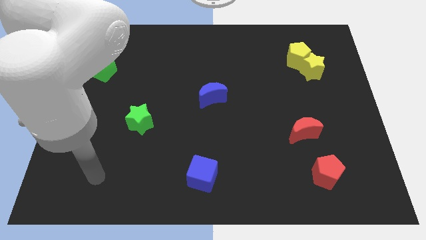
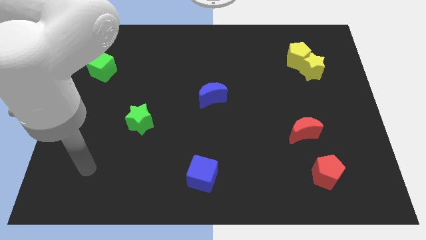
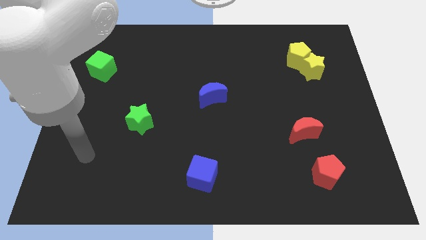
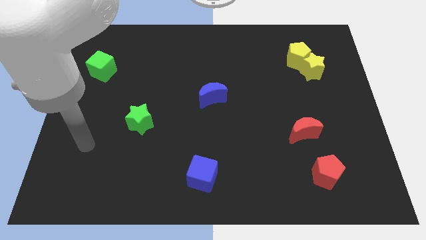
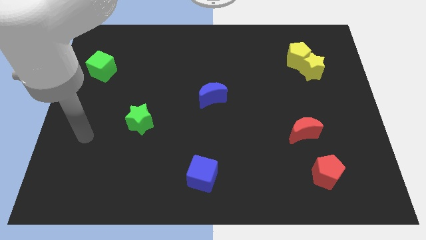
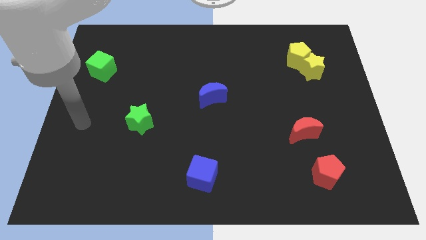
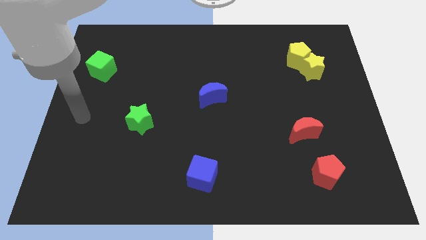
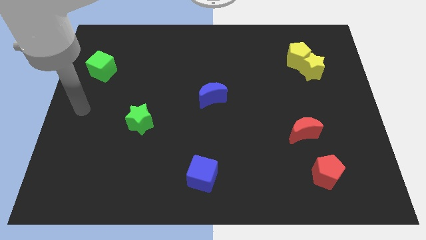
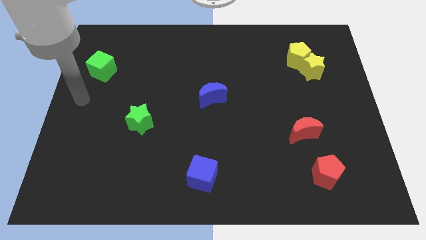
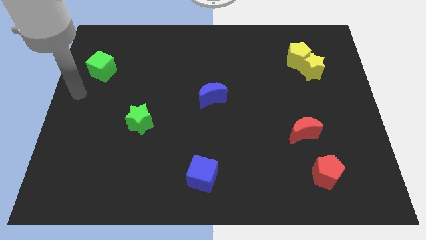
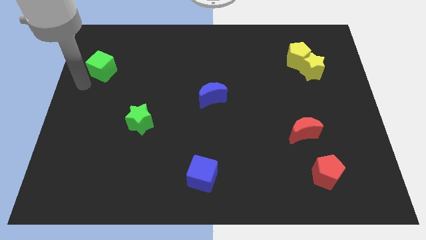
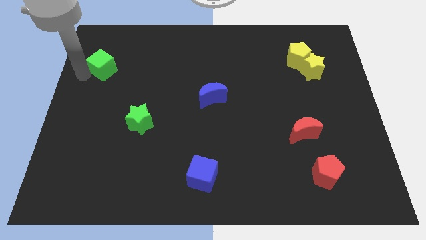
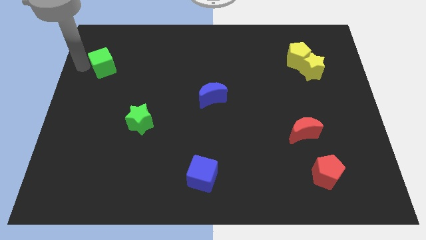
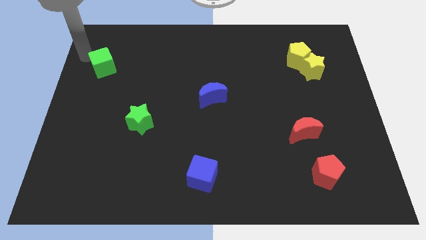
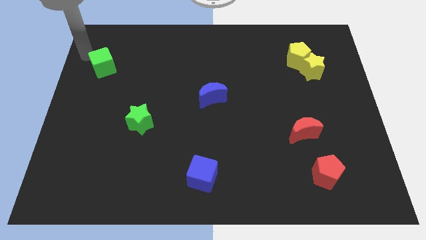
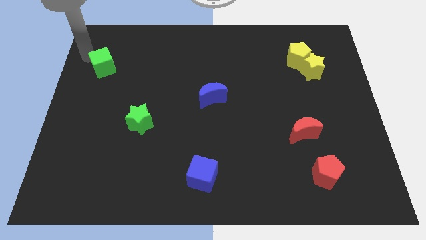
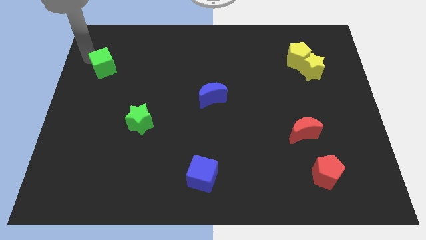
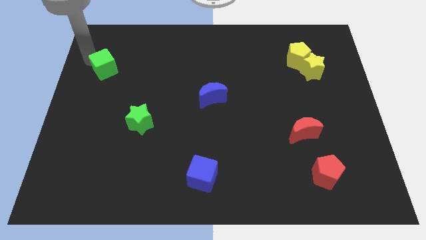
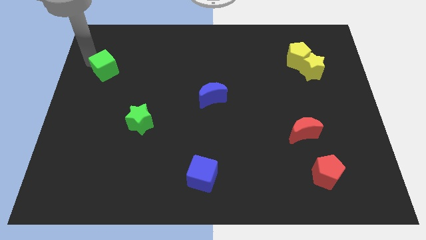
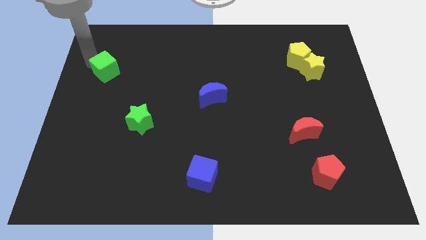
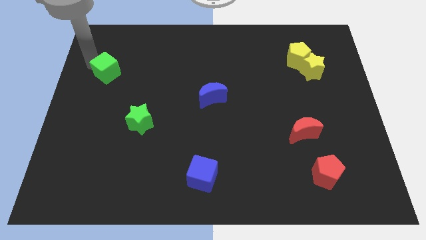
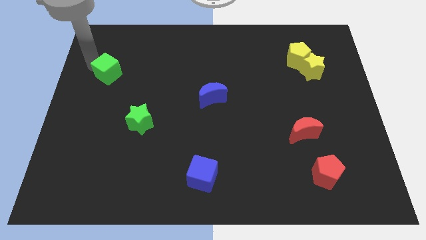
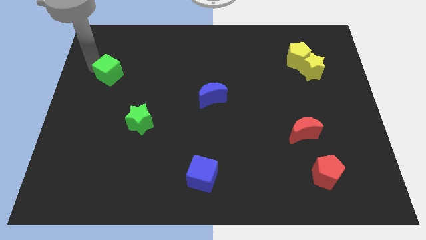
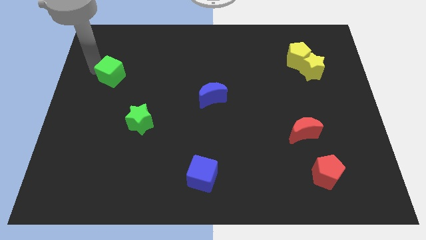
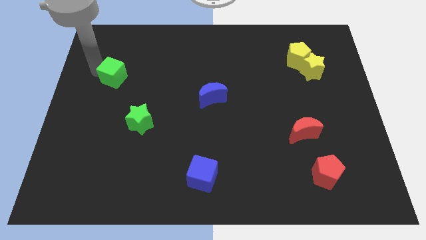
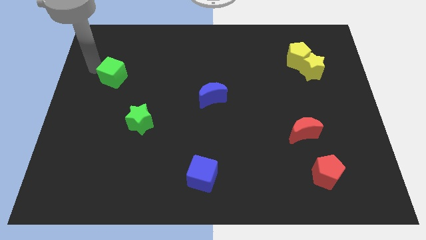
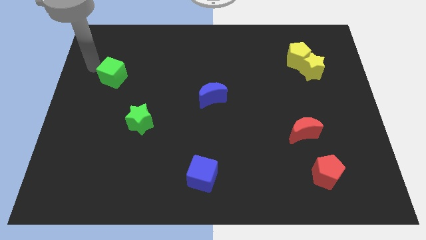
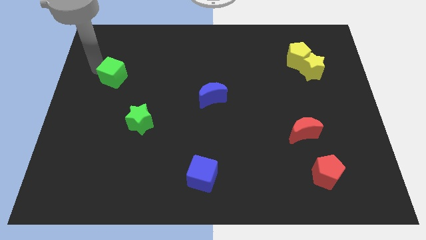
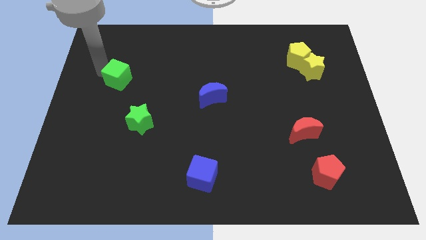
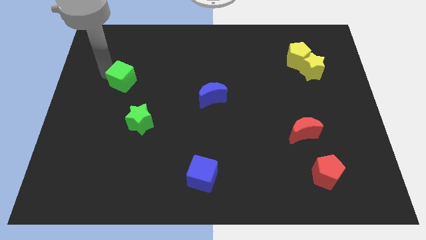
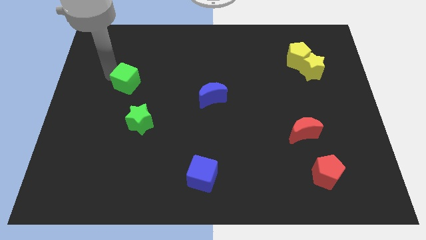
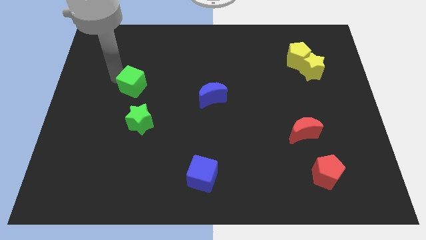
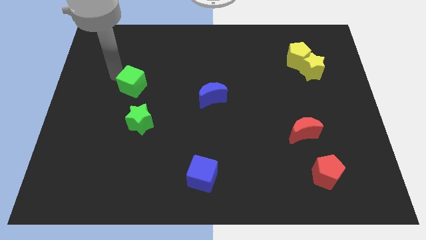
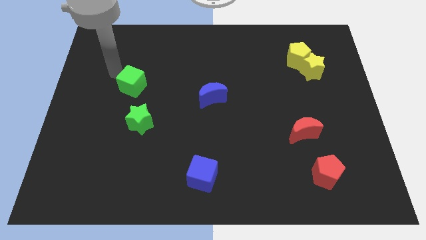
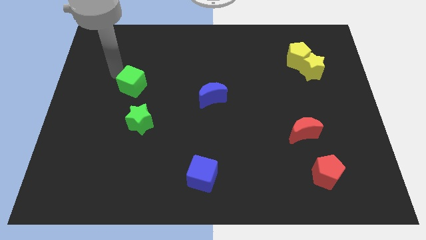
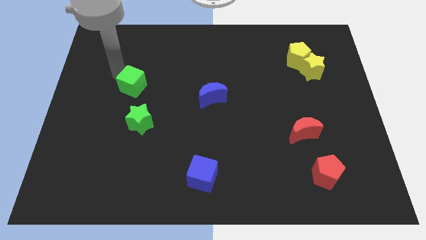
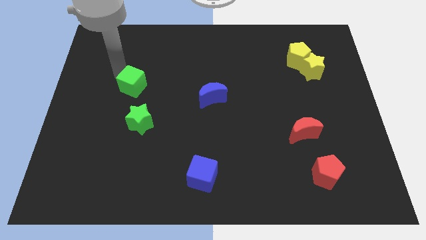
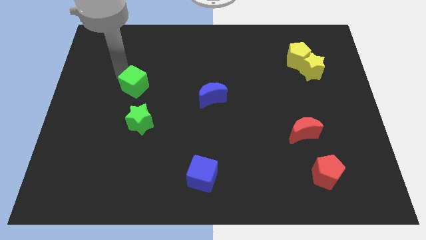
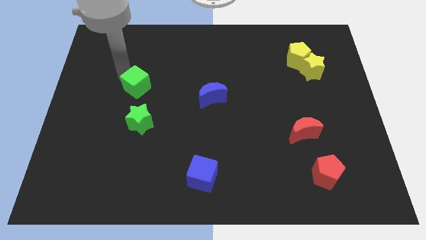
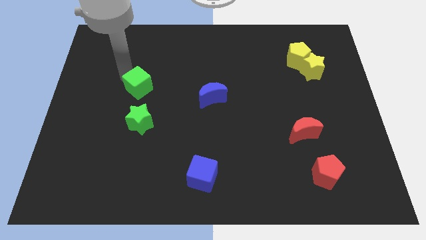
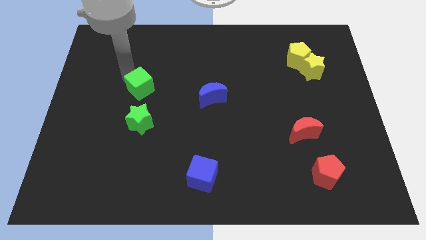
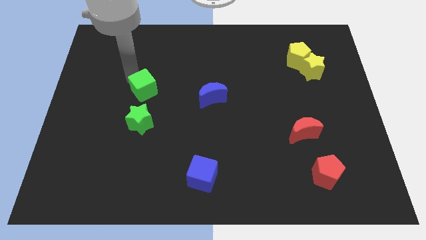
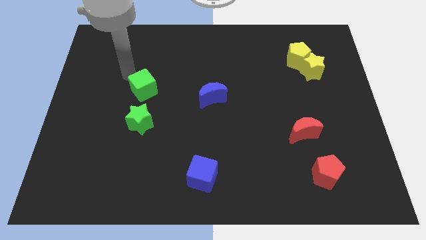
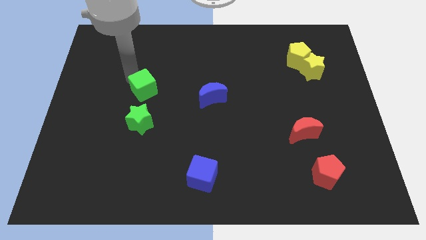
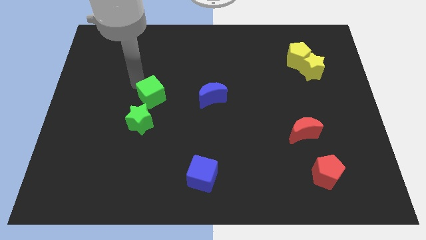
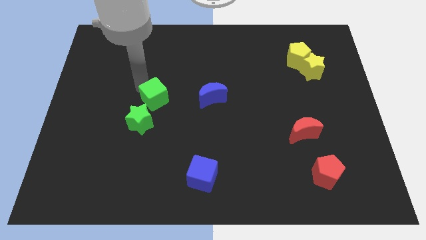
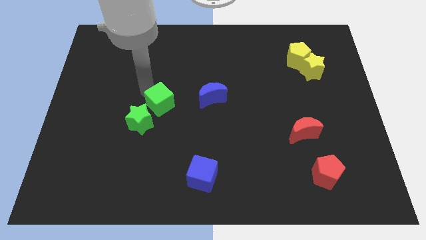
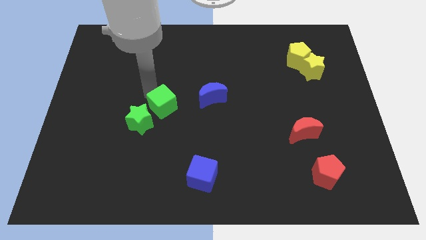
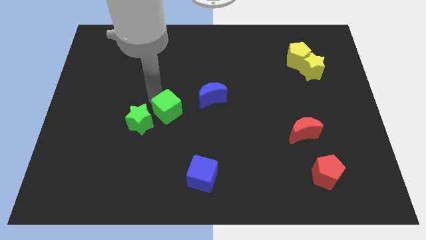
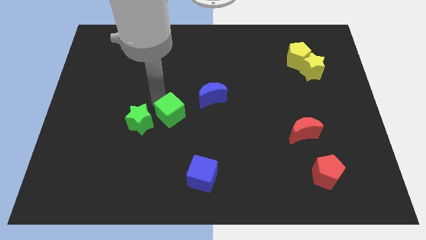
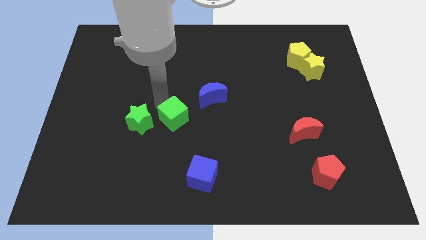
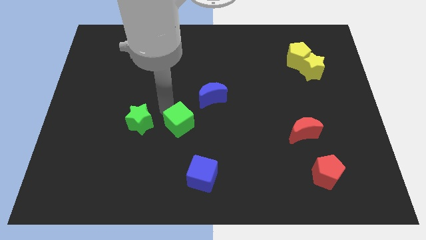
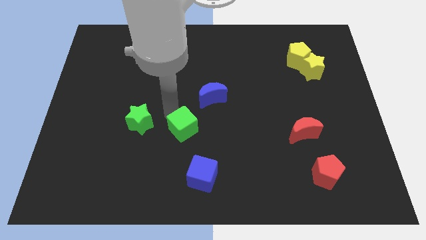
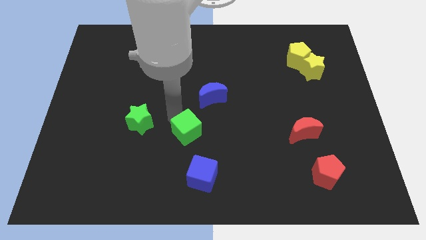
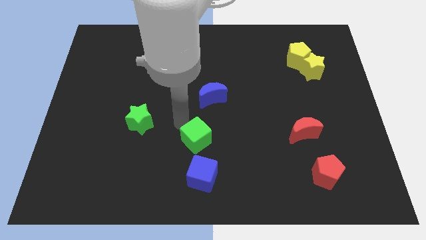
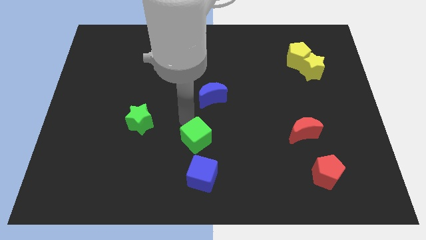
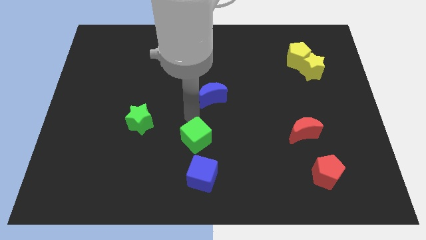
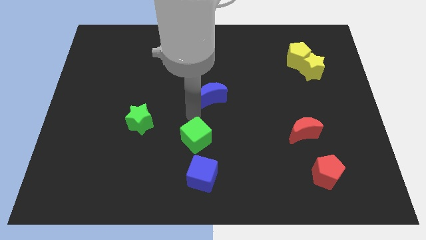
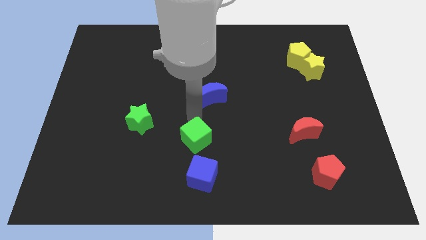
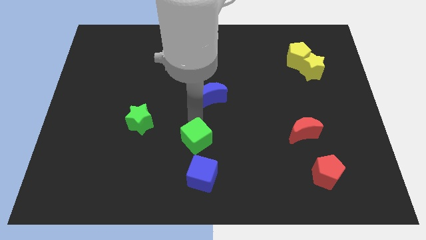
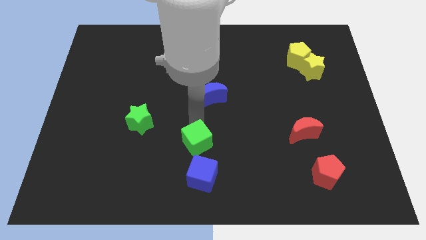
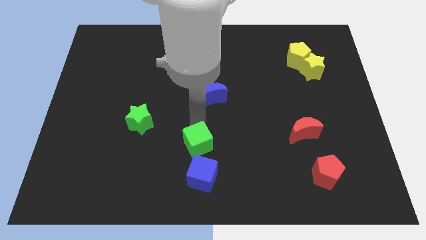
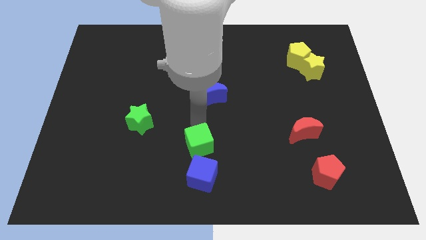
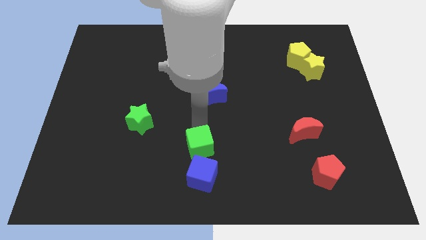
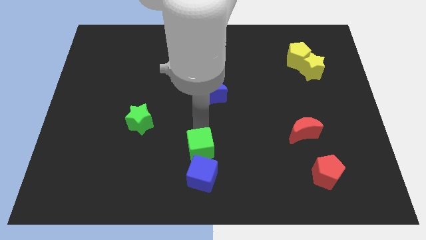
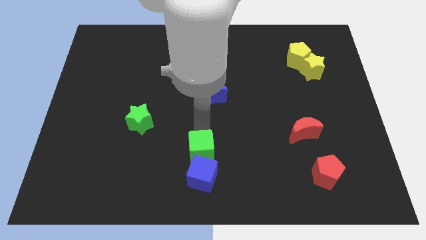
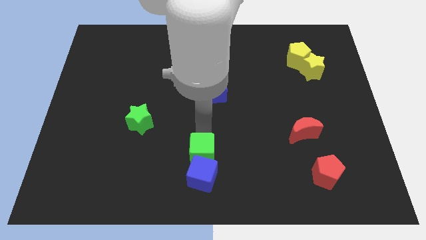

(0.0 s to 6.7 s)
put the green cube to the blue cube
